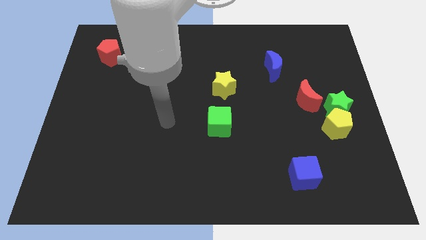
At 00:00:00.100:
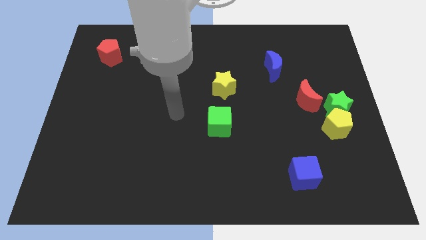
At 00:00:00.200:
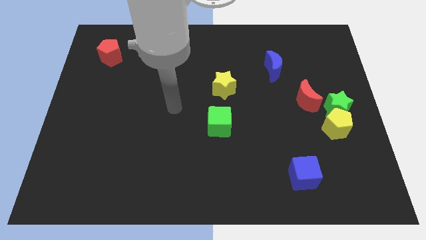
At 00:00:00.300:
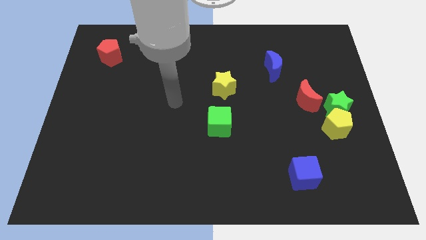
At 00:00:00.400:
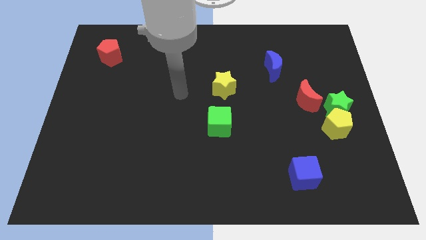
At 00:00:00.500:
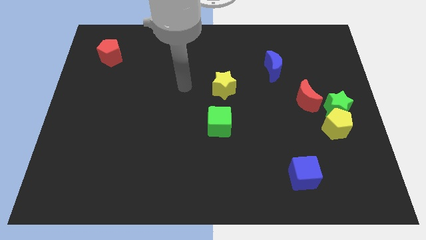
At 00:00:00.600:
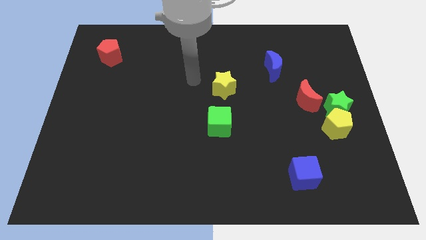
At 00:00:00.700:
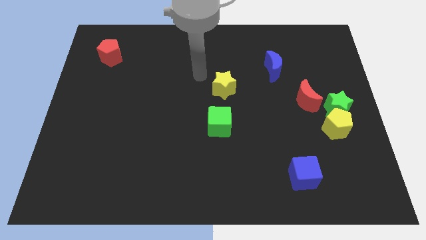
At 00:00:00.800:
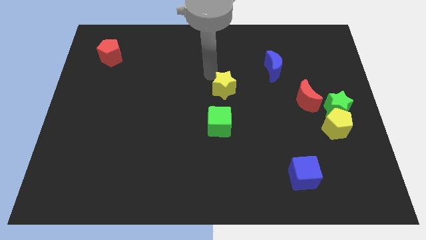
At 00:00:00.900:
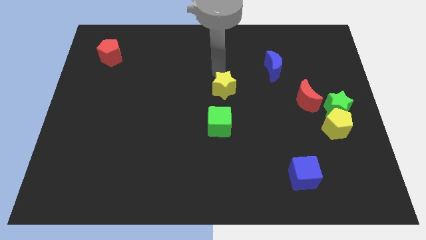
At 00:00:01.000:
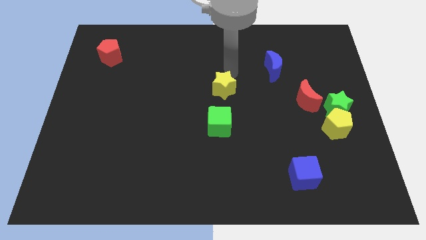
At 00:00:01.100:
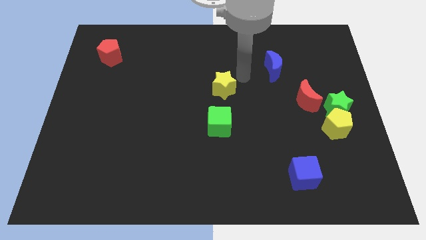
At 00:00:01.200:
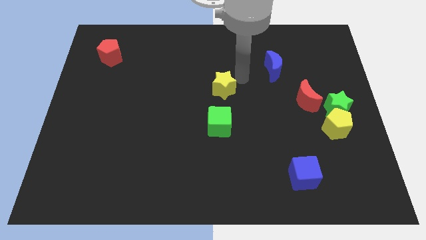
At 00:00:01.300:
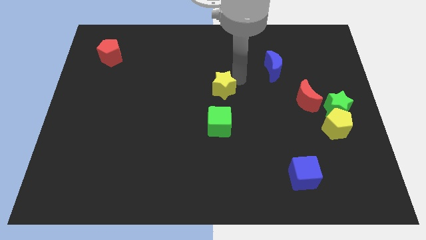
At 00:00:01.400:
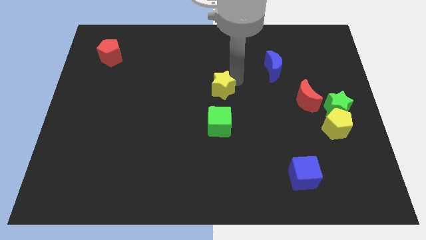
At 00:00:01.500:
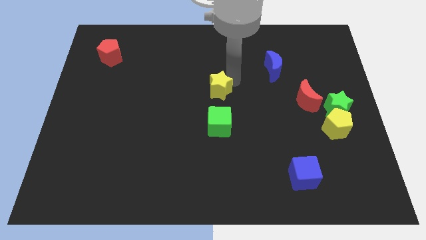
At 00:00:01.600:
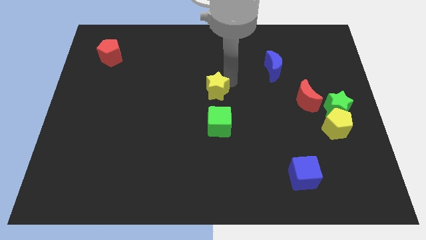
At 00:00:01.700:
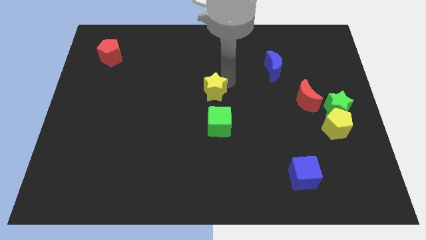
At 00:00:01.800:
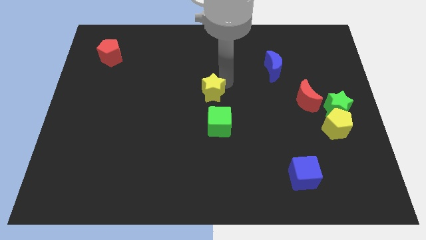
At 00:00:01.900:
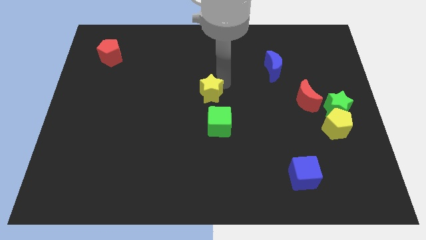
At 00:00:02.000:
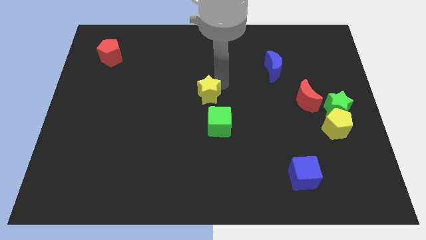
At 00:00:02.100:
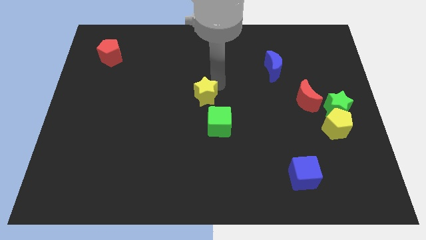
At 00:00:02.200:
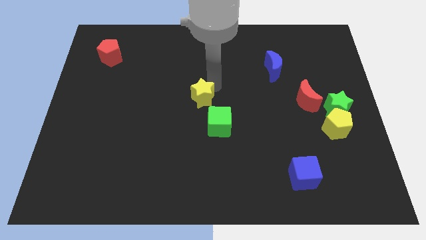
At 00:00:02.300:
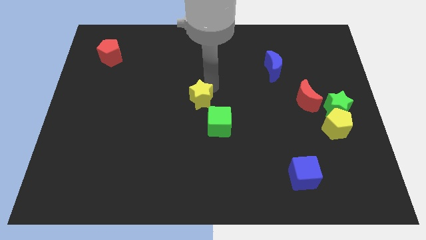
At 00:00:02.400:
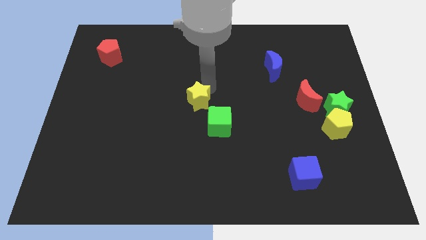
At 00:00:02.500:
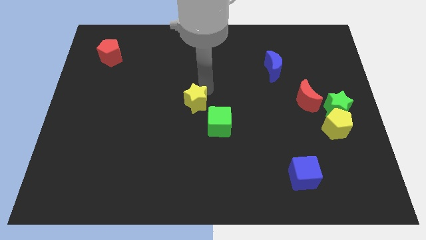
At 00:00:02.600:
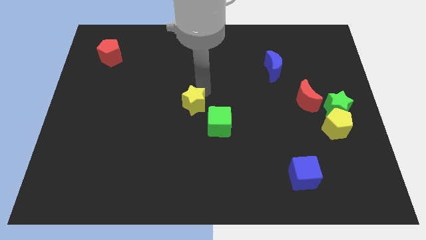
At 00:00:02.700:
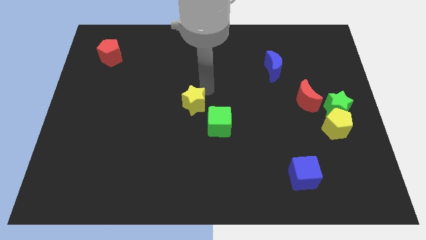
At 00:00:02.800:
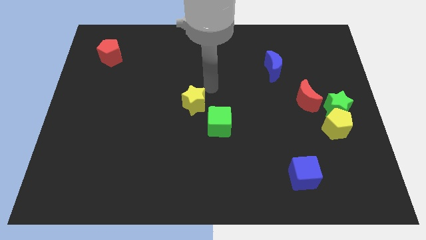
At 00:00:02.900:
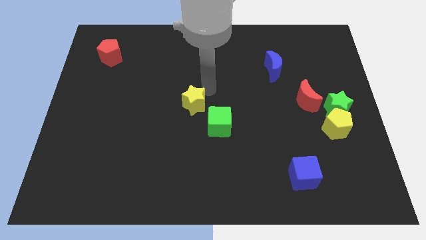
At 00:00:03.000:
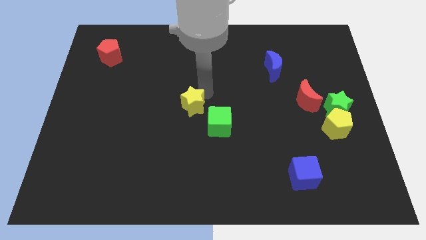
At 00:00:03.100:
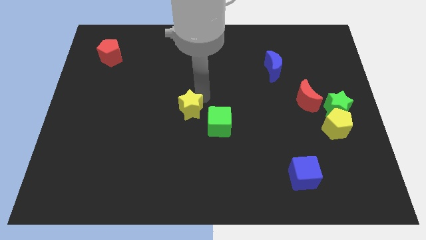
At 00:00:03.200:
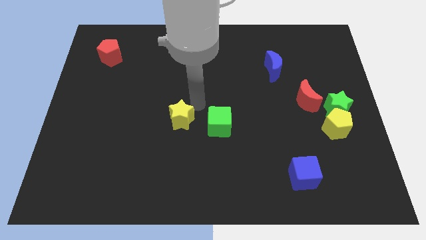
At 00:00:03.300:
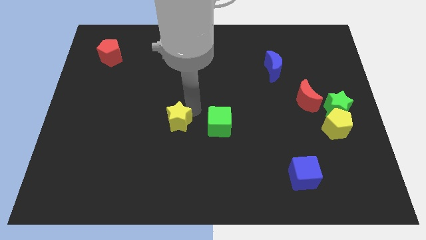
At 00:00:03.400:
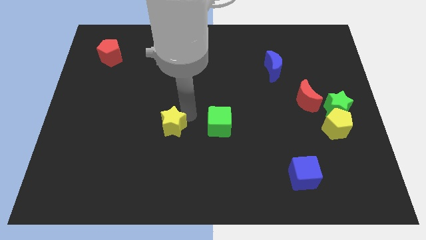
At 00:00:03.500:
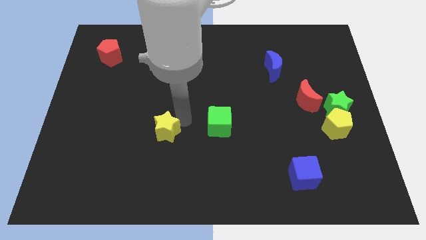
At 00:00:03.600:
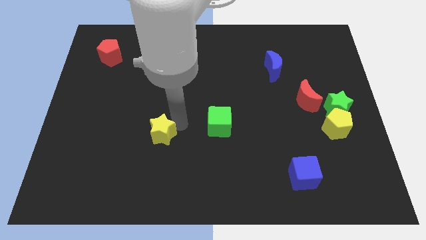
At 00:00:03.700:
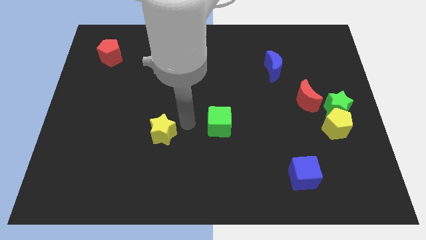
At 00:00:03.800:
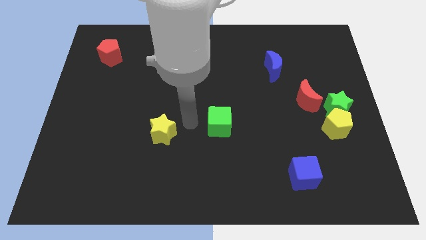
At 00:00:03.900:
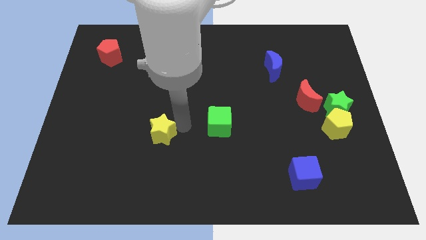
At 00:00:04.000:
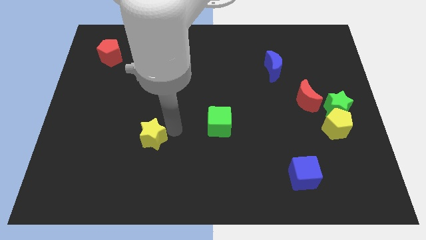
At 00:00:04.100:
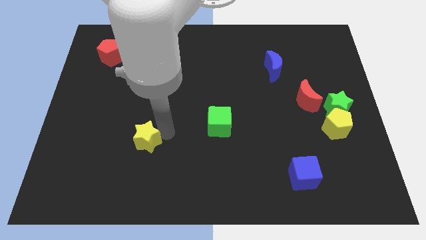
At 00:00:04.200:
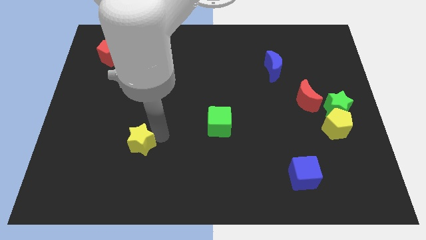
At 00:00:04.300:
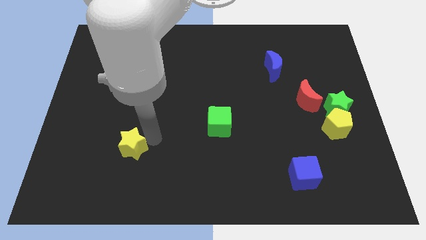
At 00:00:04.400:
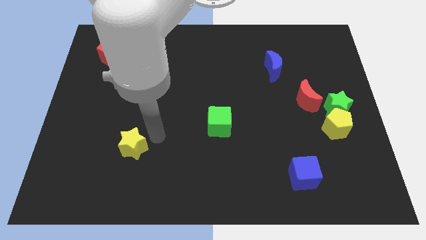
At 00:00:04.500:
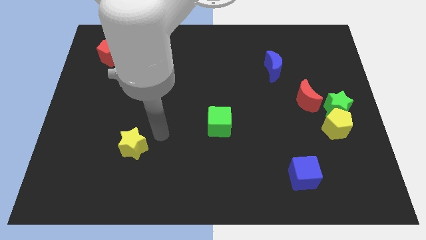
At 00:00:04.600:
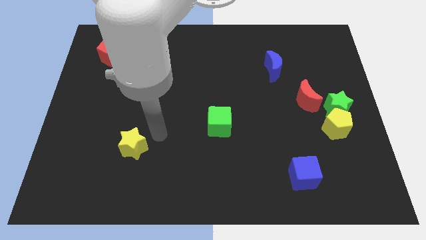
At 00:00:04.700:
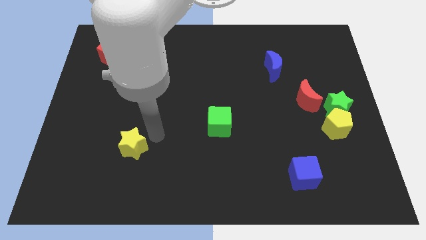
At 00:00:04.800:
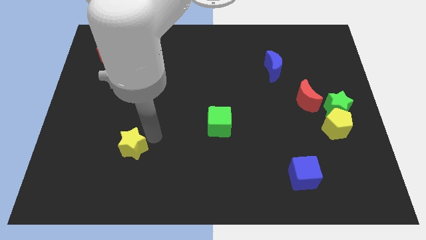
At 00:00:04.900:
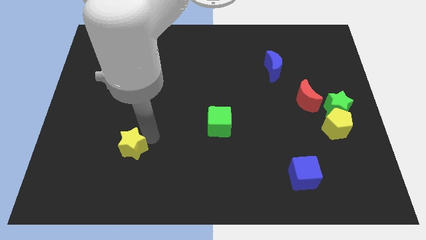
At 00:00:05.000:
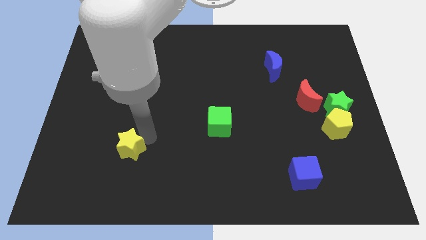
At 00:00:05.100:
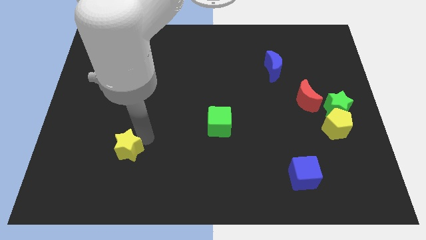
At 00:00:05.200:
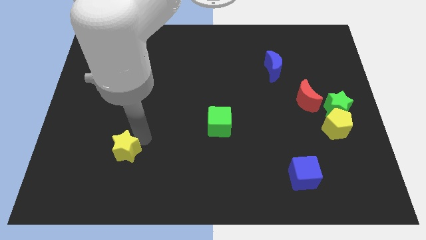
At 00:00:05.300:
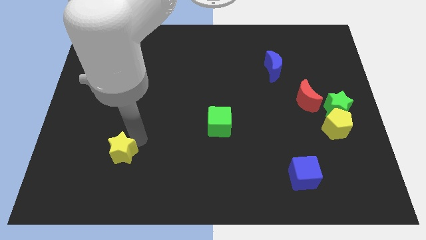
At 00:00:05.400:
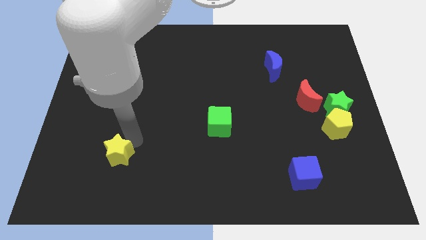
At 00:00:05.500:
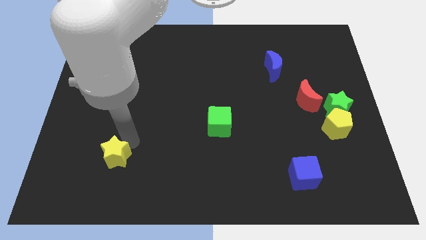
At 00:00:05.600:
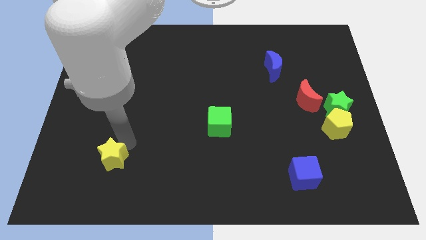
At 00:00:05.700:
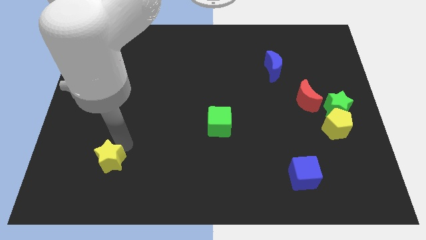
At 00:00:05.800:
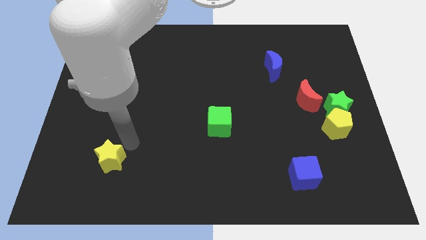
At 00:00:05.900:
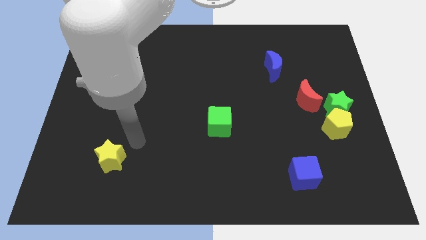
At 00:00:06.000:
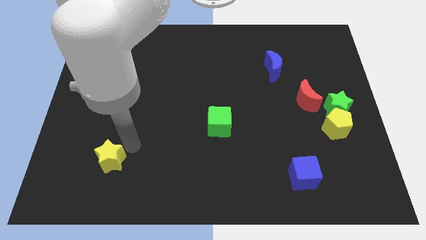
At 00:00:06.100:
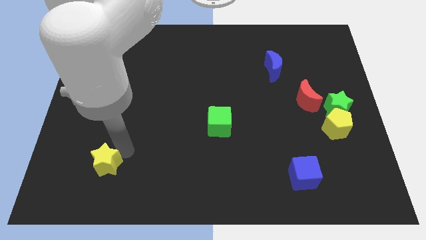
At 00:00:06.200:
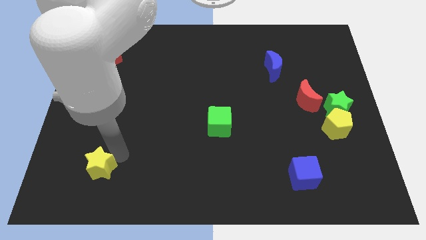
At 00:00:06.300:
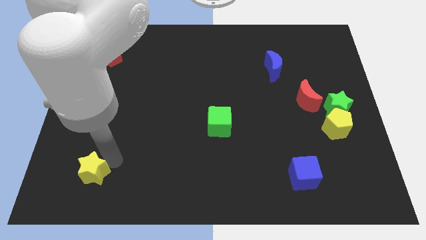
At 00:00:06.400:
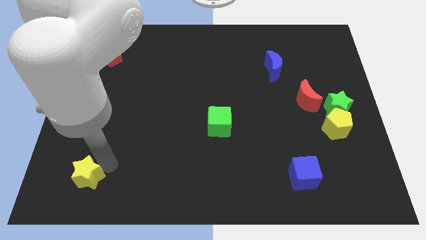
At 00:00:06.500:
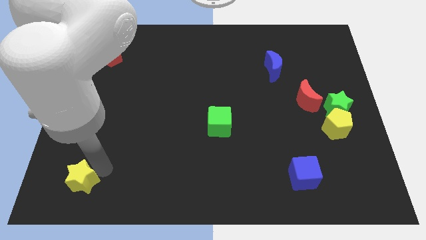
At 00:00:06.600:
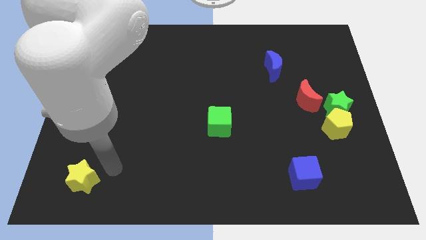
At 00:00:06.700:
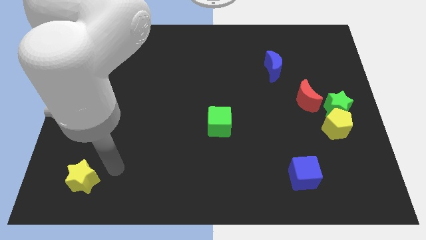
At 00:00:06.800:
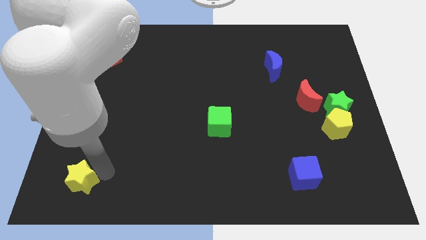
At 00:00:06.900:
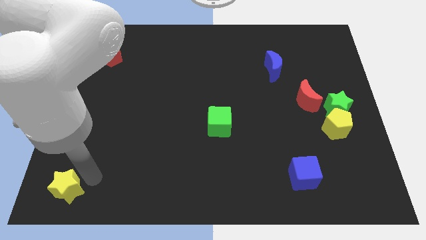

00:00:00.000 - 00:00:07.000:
put the yellow star to the bottom left of the board
